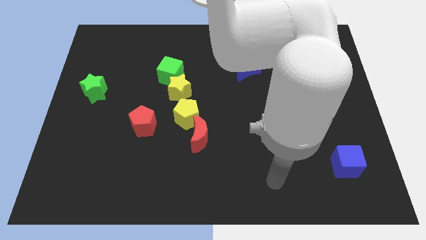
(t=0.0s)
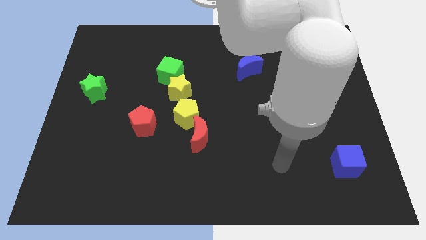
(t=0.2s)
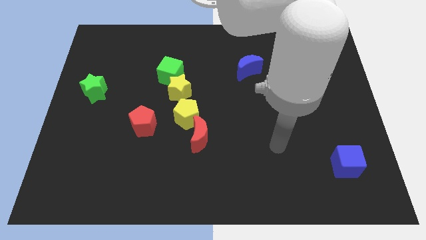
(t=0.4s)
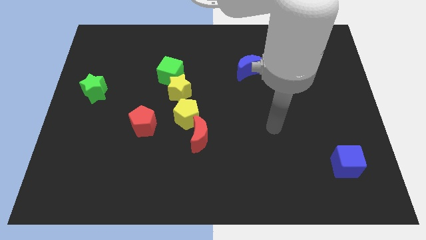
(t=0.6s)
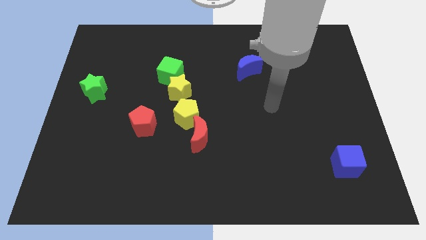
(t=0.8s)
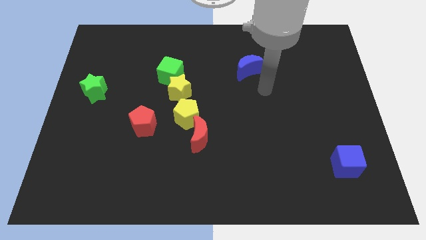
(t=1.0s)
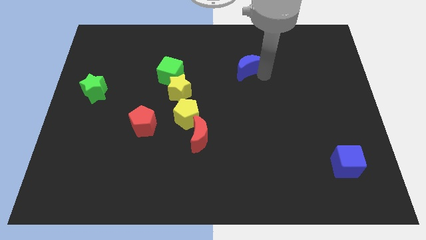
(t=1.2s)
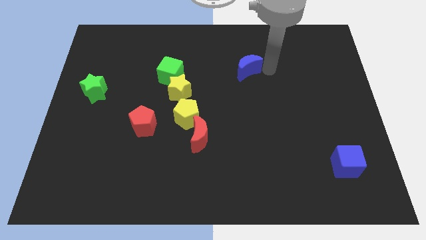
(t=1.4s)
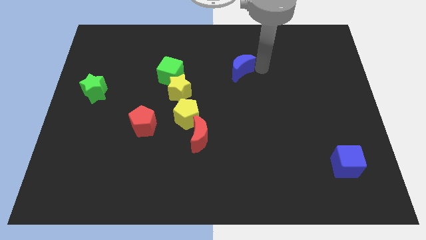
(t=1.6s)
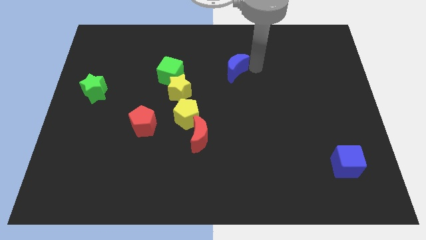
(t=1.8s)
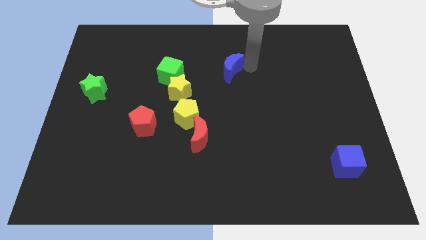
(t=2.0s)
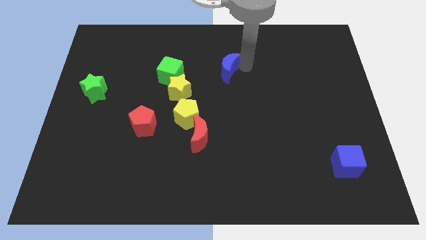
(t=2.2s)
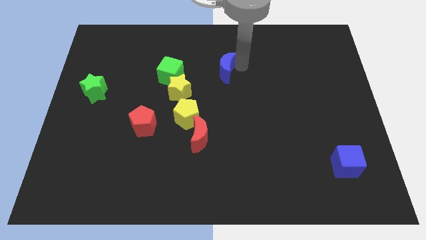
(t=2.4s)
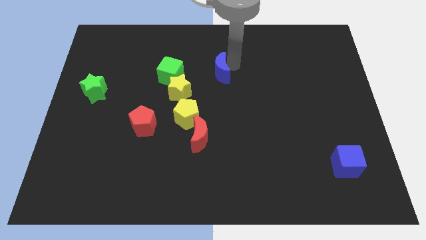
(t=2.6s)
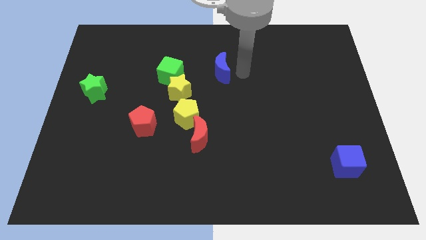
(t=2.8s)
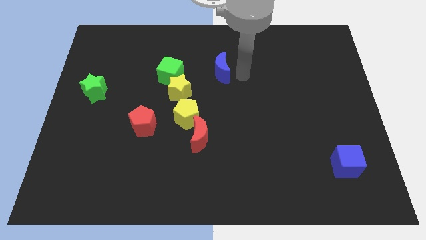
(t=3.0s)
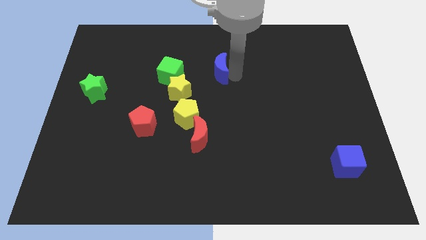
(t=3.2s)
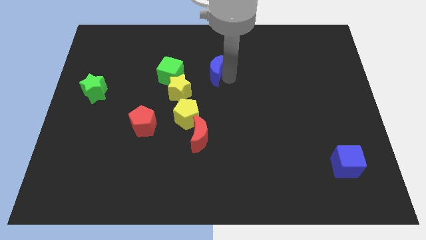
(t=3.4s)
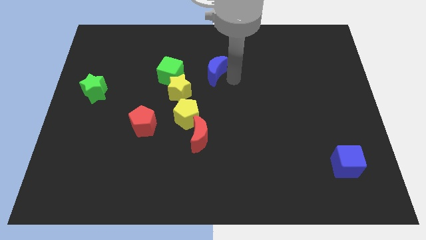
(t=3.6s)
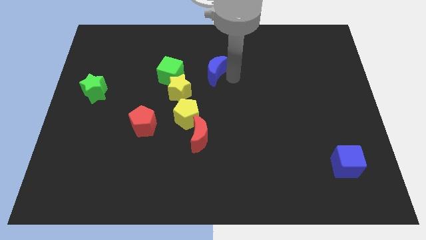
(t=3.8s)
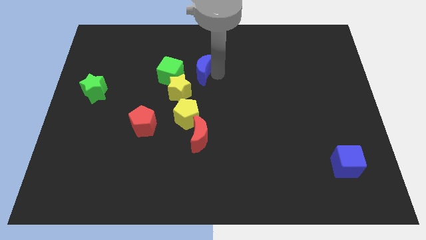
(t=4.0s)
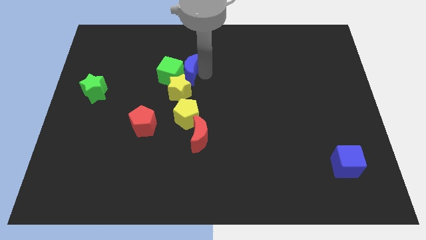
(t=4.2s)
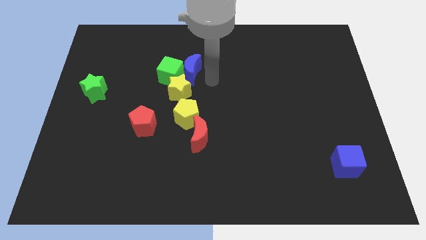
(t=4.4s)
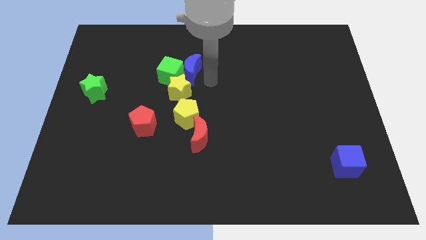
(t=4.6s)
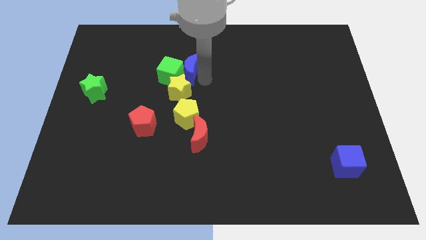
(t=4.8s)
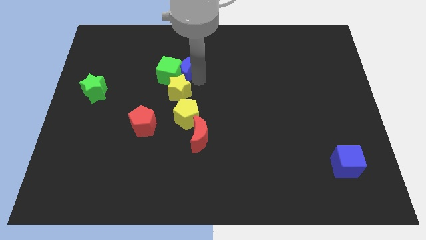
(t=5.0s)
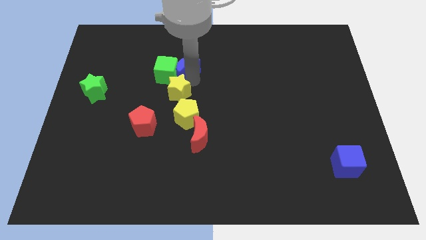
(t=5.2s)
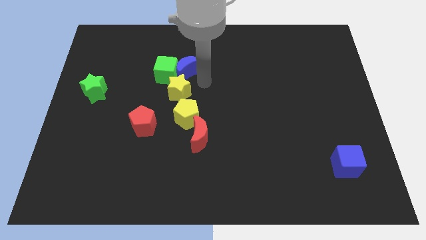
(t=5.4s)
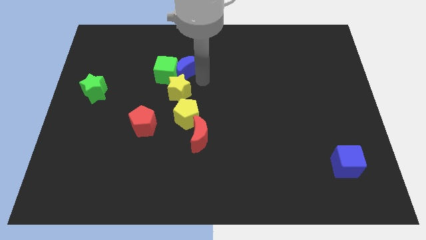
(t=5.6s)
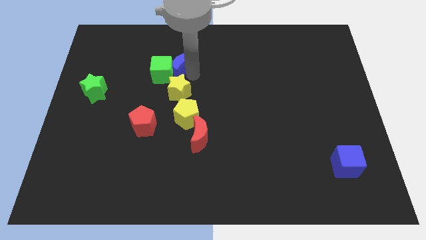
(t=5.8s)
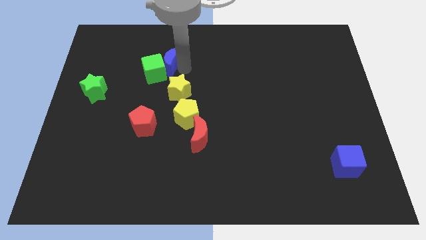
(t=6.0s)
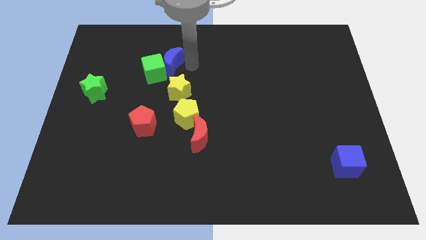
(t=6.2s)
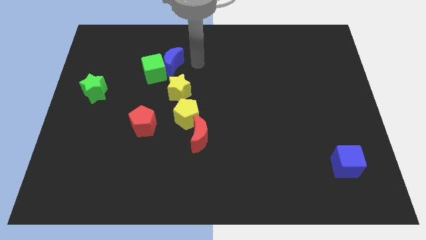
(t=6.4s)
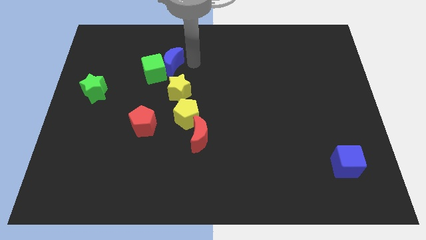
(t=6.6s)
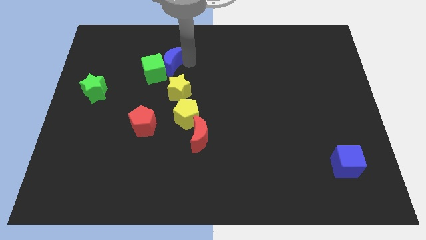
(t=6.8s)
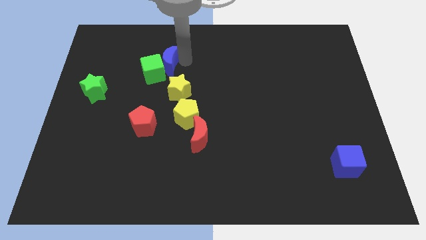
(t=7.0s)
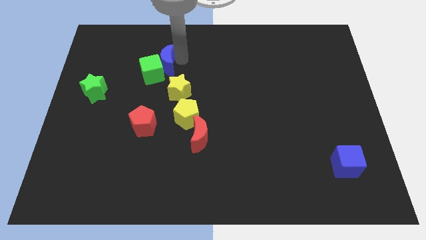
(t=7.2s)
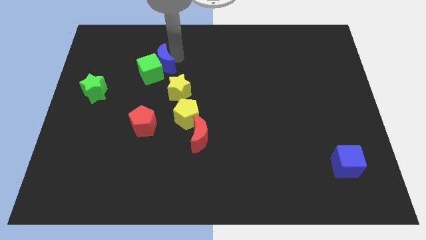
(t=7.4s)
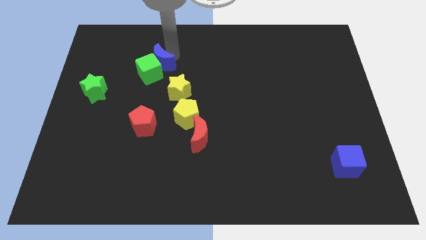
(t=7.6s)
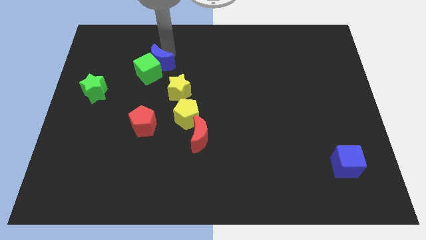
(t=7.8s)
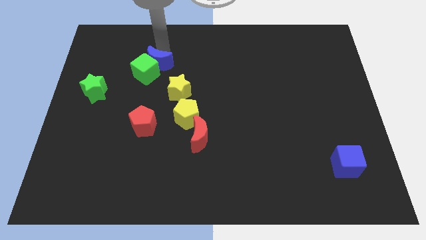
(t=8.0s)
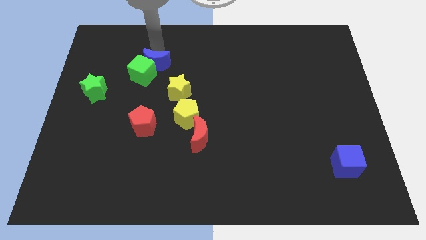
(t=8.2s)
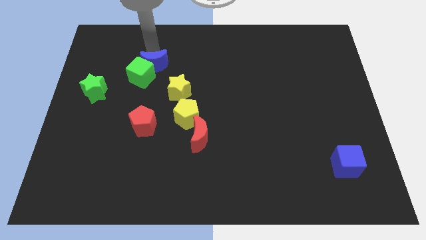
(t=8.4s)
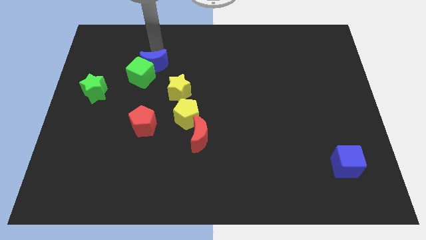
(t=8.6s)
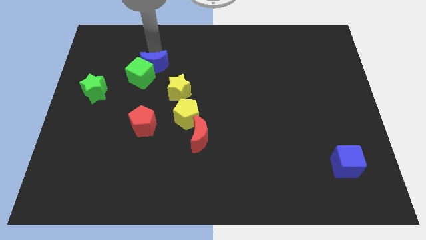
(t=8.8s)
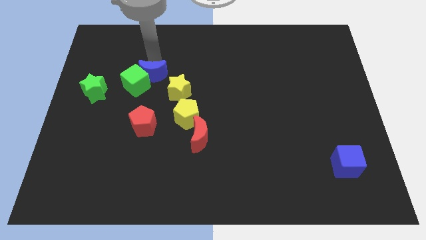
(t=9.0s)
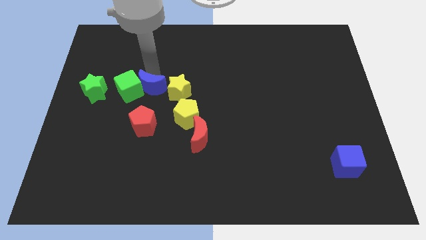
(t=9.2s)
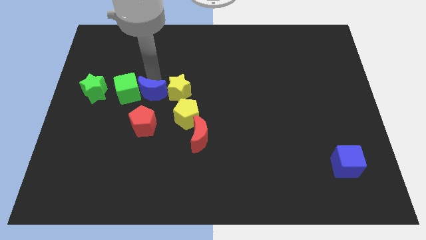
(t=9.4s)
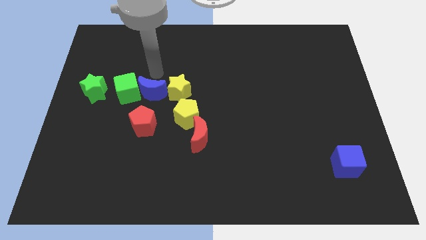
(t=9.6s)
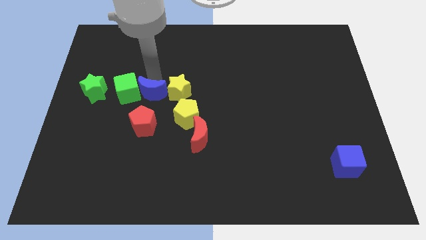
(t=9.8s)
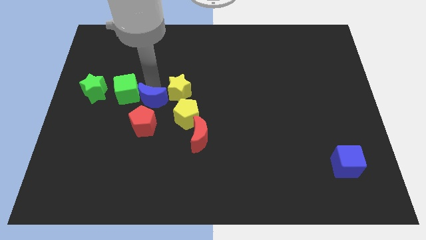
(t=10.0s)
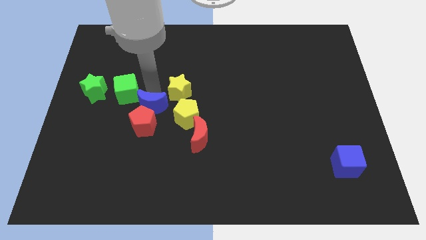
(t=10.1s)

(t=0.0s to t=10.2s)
push the blue moon close to the red pentagon

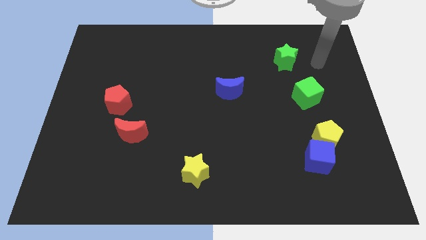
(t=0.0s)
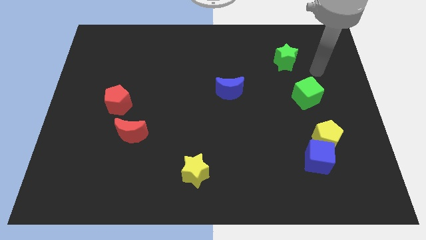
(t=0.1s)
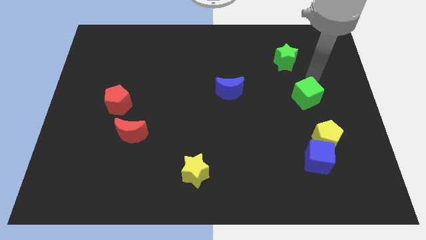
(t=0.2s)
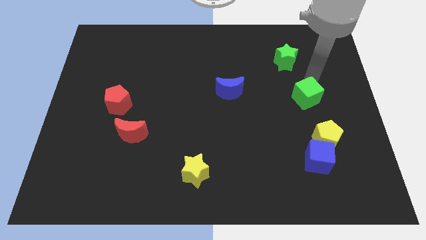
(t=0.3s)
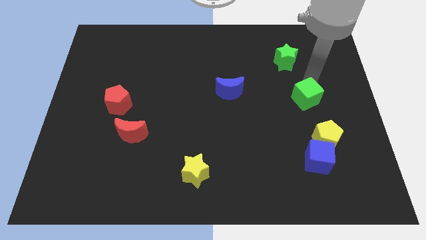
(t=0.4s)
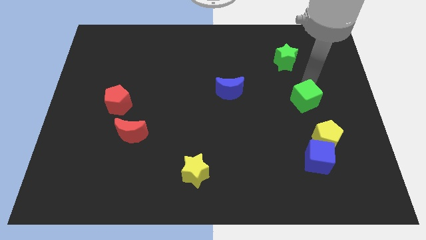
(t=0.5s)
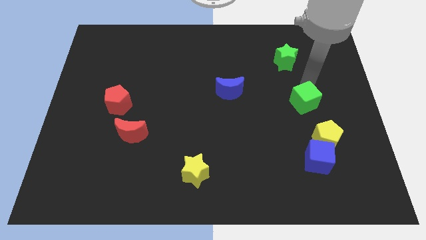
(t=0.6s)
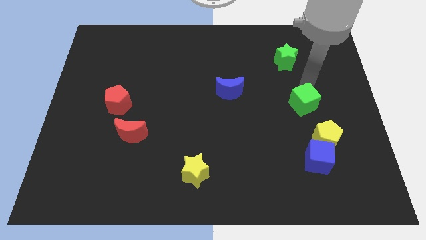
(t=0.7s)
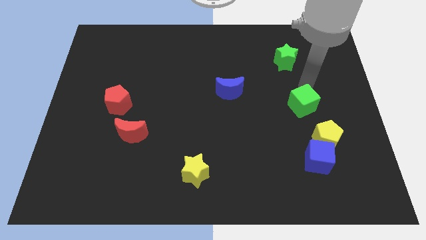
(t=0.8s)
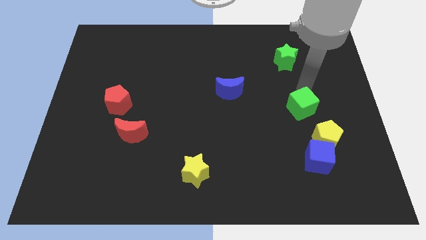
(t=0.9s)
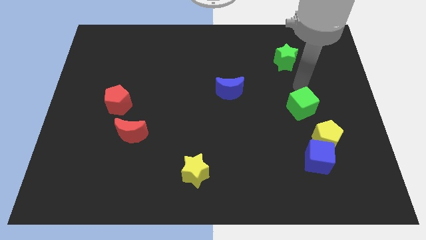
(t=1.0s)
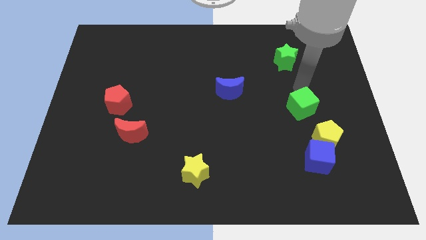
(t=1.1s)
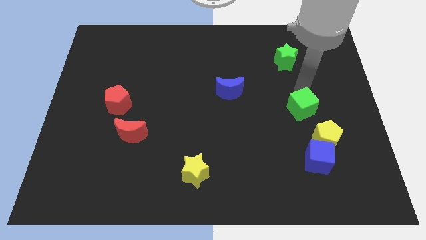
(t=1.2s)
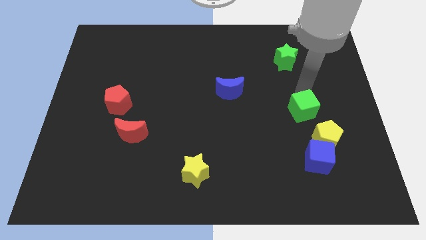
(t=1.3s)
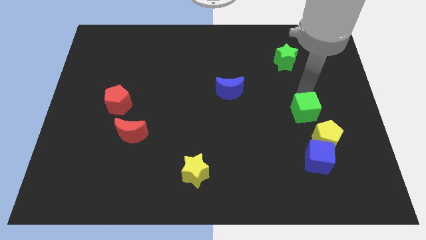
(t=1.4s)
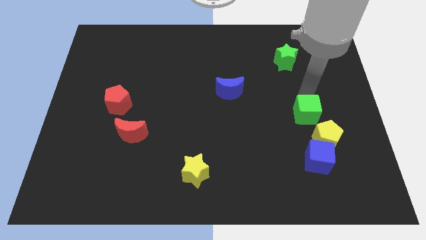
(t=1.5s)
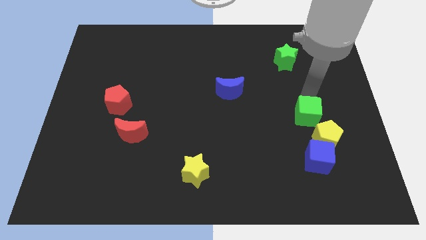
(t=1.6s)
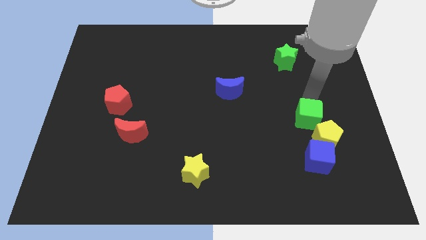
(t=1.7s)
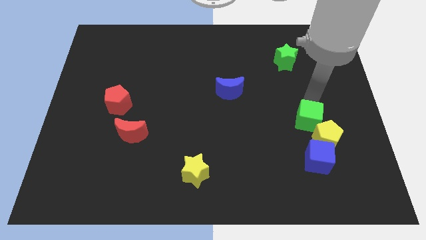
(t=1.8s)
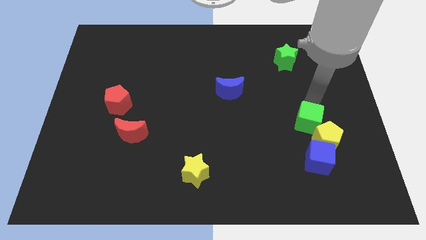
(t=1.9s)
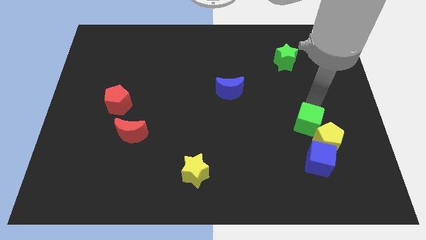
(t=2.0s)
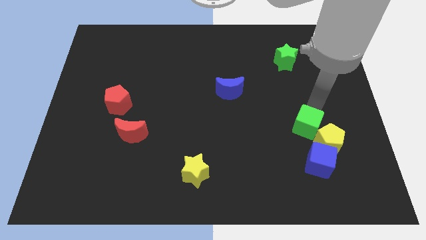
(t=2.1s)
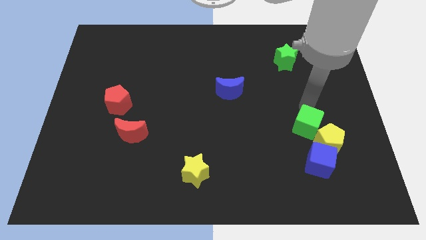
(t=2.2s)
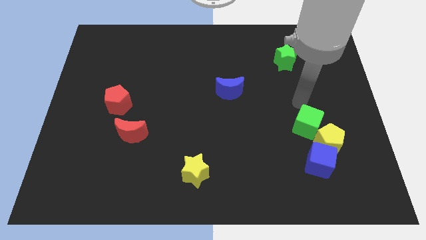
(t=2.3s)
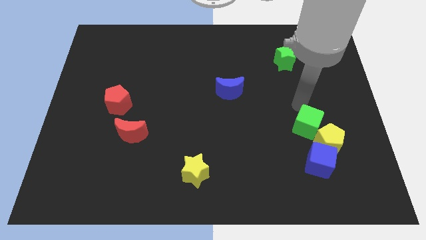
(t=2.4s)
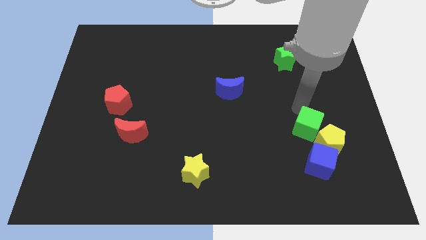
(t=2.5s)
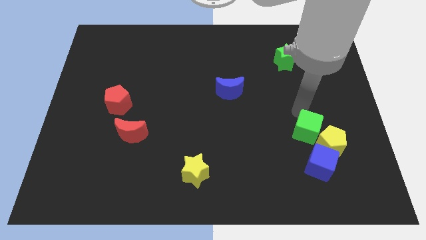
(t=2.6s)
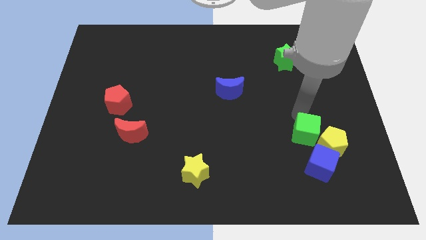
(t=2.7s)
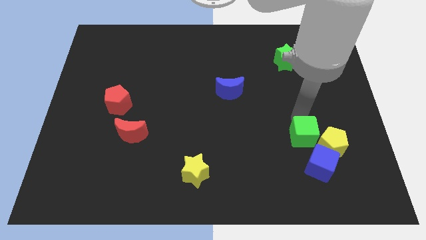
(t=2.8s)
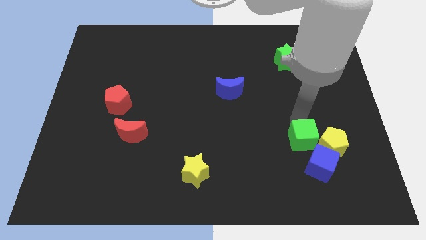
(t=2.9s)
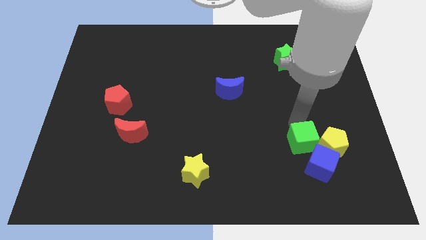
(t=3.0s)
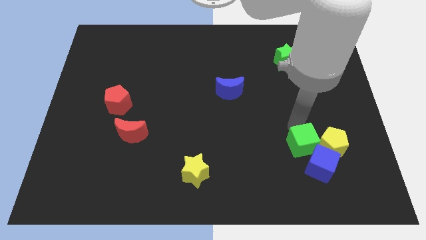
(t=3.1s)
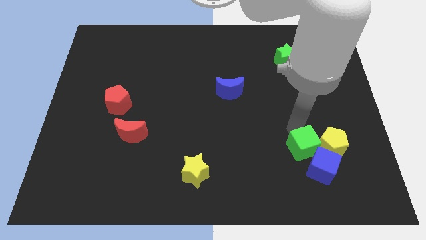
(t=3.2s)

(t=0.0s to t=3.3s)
push the green cube towards the blue cube
